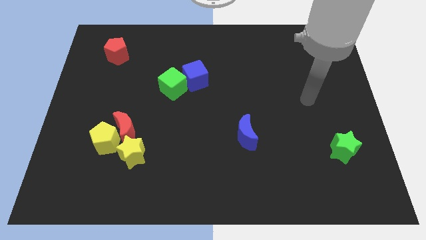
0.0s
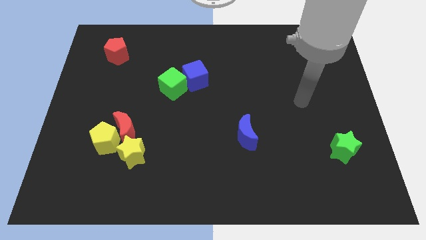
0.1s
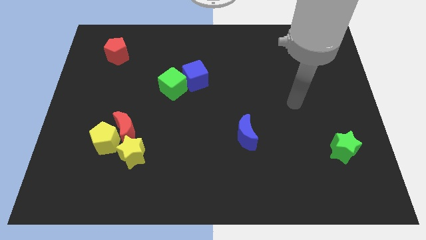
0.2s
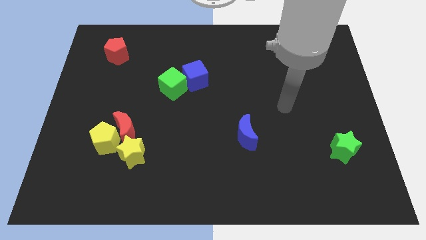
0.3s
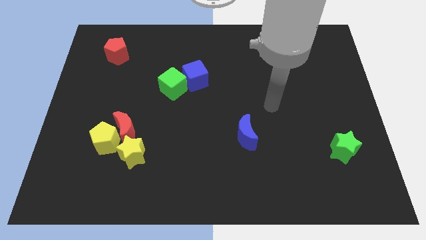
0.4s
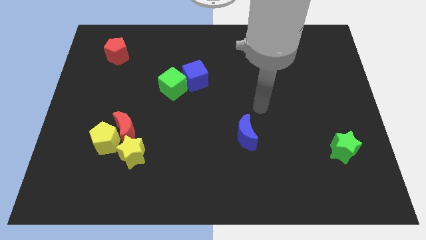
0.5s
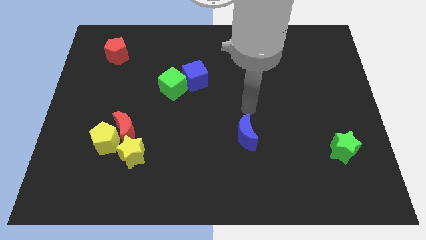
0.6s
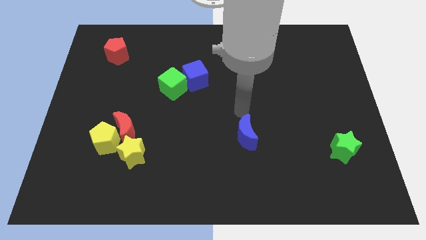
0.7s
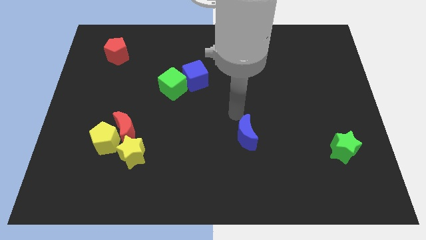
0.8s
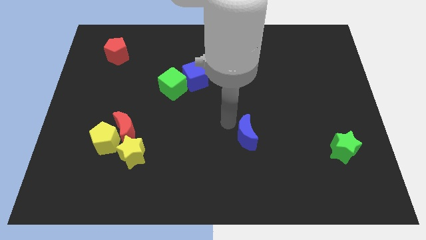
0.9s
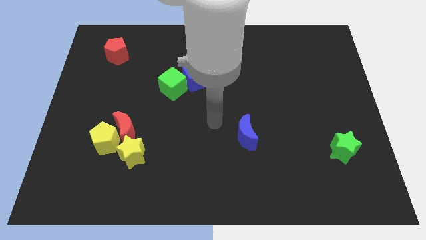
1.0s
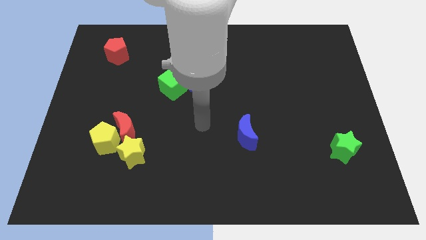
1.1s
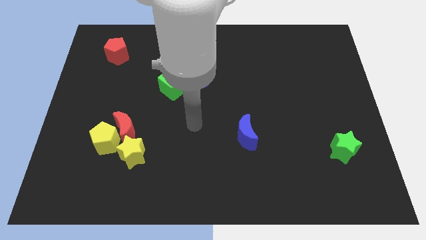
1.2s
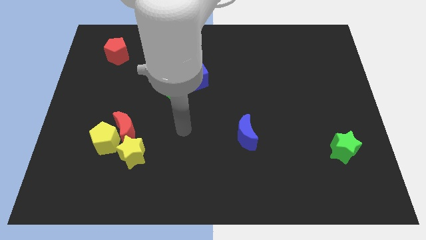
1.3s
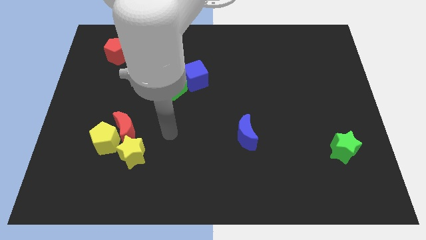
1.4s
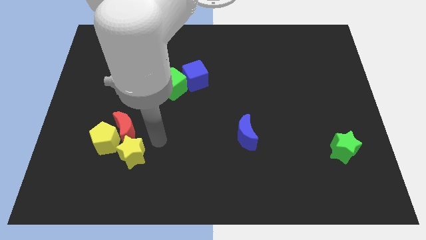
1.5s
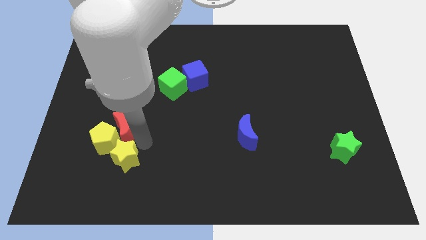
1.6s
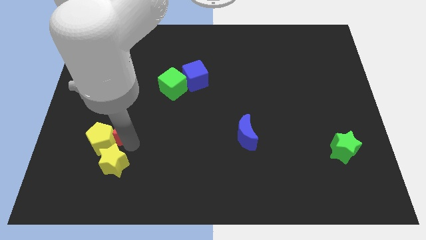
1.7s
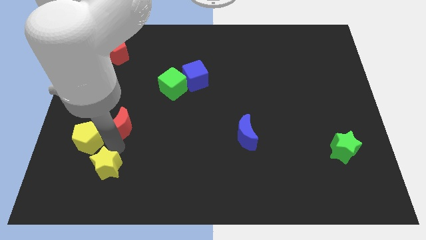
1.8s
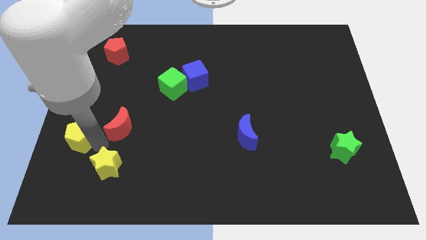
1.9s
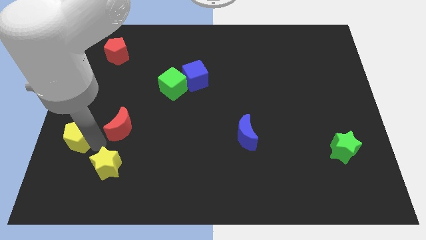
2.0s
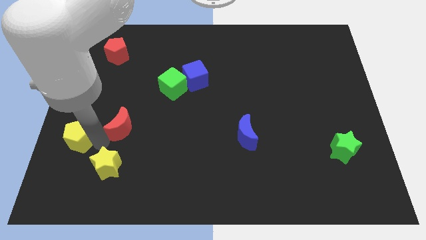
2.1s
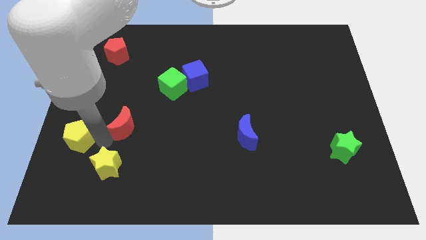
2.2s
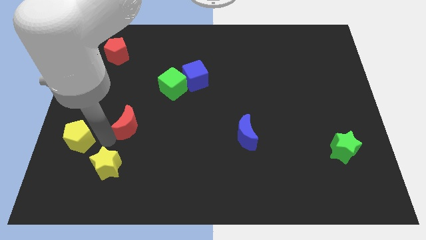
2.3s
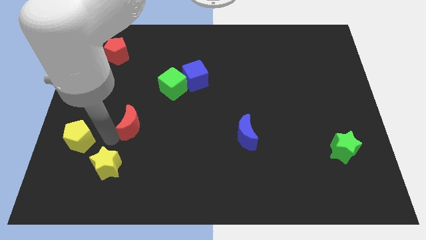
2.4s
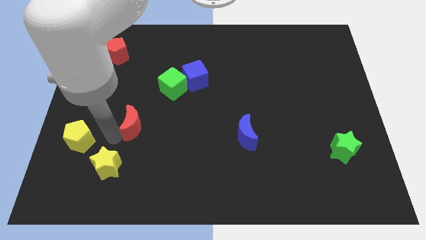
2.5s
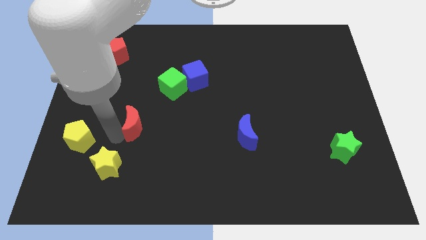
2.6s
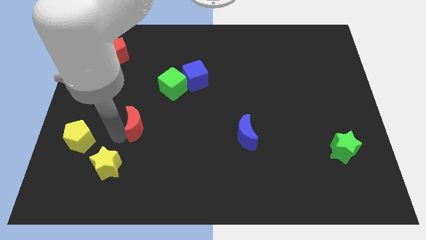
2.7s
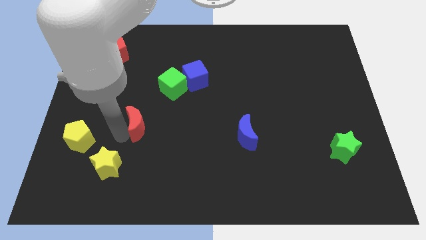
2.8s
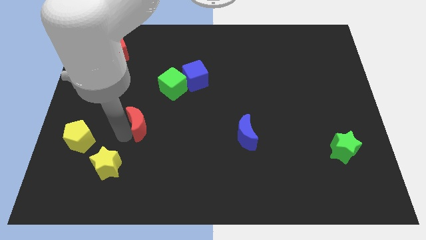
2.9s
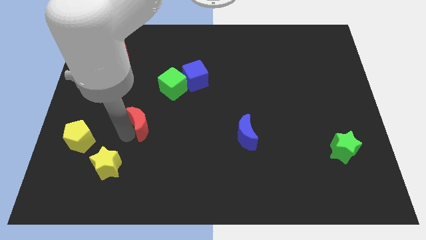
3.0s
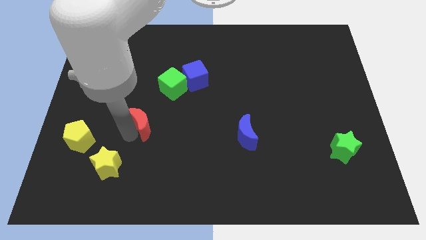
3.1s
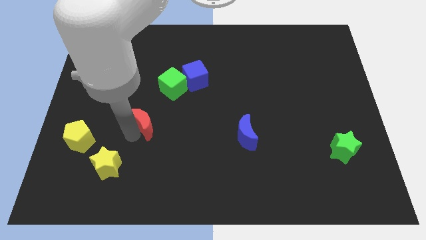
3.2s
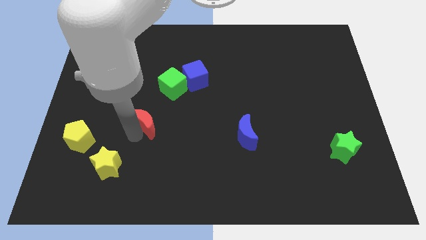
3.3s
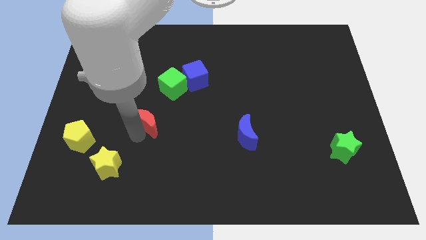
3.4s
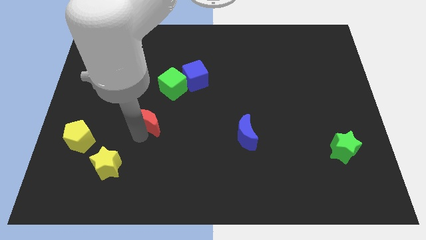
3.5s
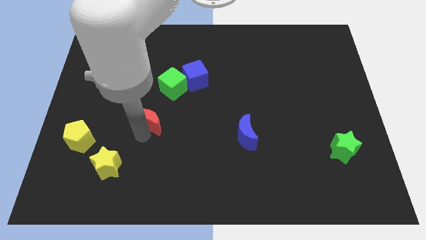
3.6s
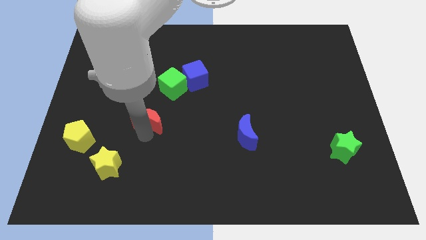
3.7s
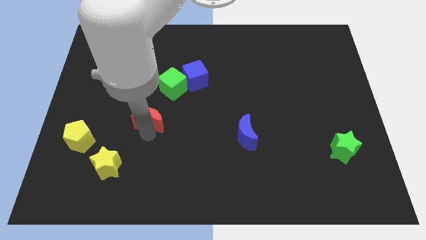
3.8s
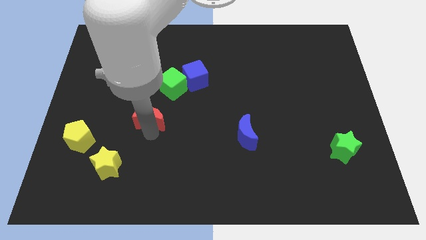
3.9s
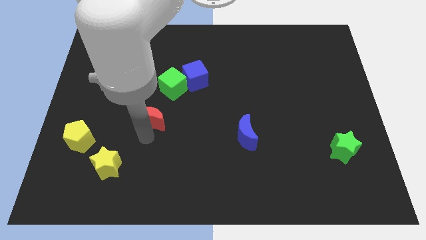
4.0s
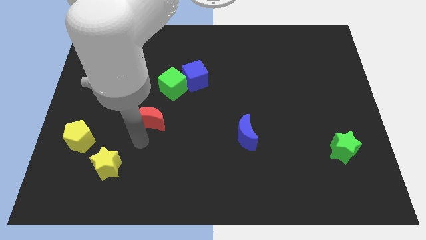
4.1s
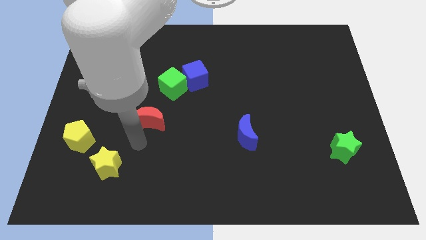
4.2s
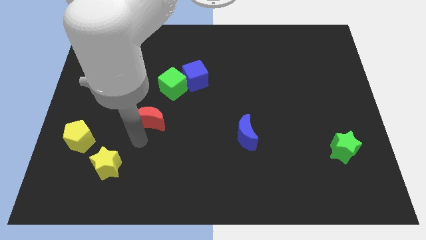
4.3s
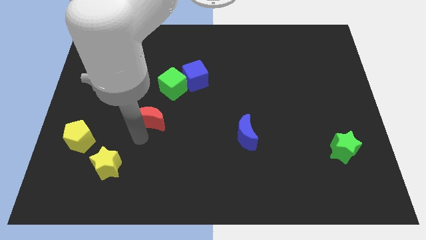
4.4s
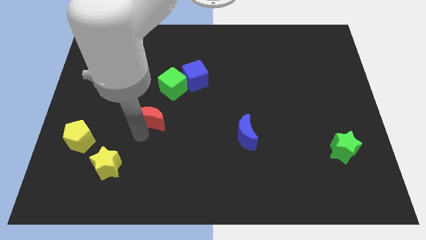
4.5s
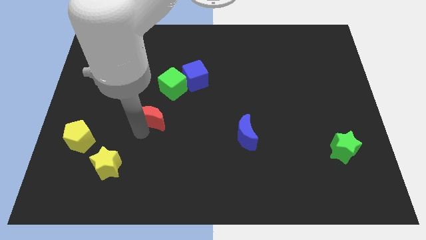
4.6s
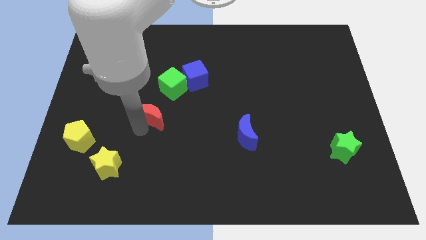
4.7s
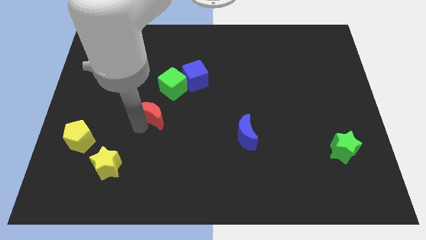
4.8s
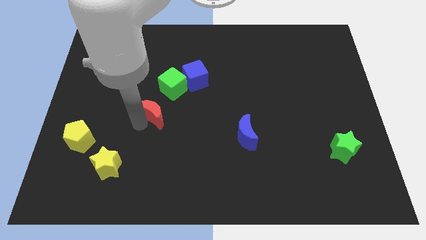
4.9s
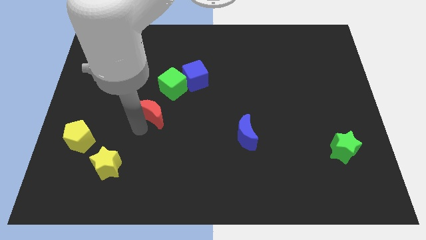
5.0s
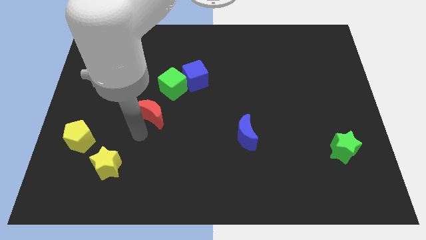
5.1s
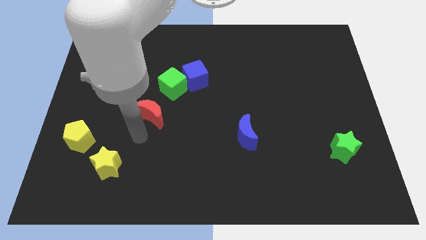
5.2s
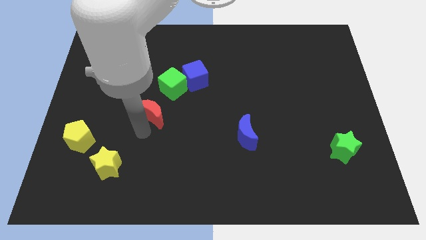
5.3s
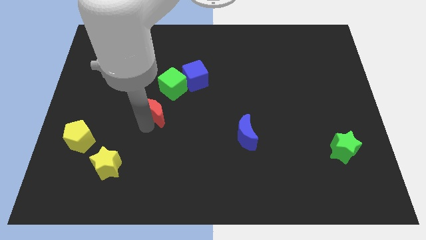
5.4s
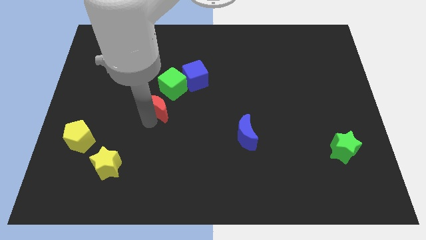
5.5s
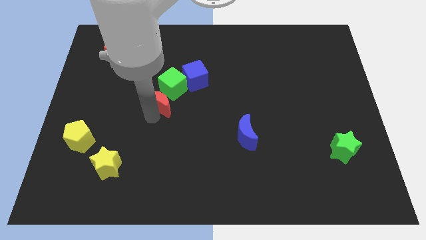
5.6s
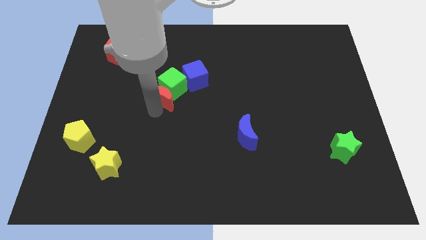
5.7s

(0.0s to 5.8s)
move the red moon next to the green cube

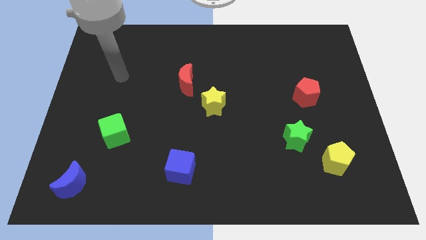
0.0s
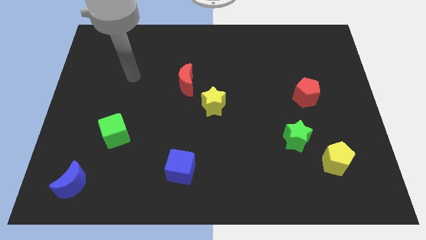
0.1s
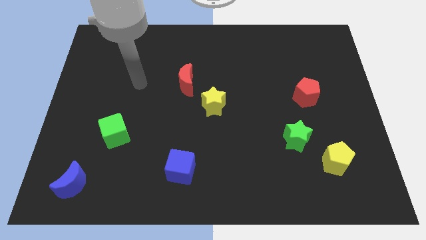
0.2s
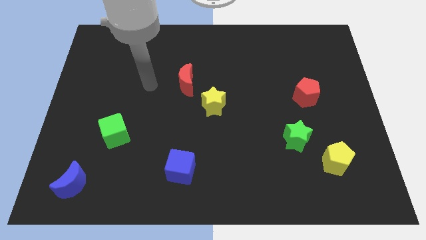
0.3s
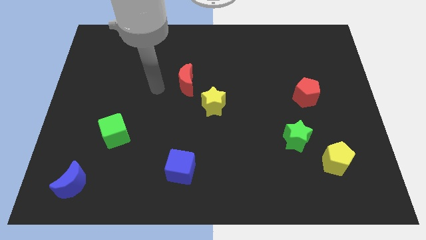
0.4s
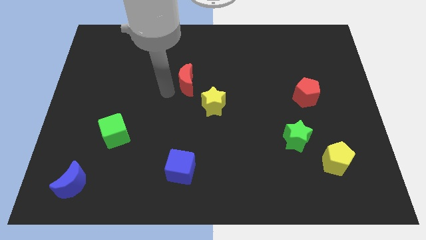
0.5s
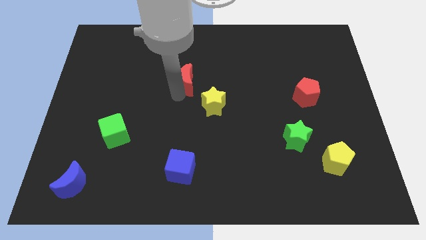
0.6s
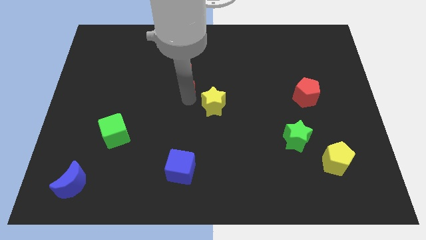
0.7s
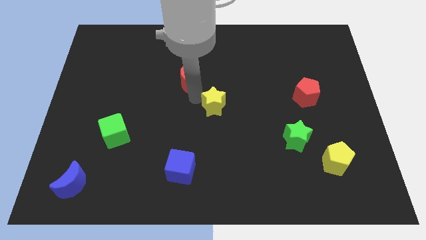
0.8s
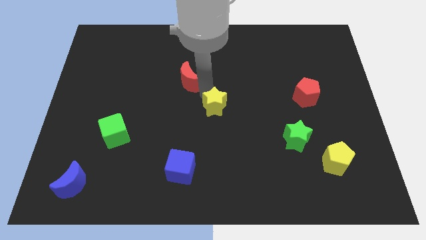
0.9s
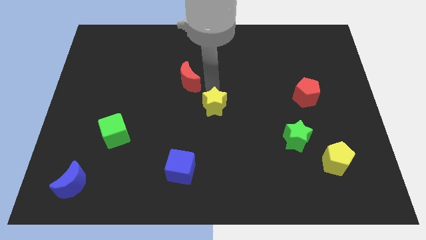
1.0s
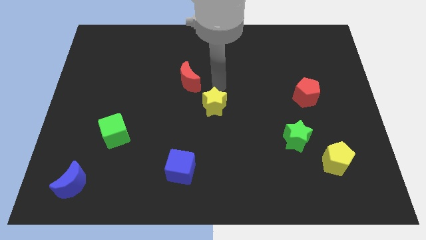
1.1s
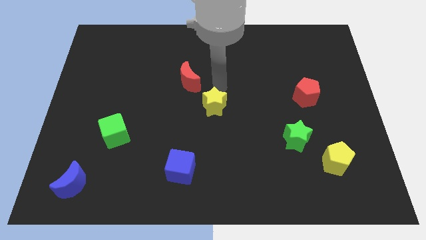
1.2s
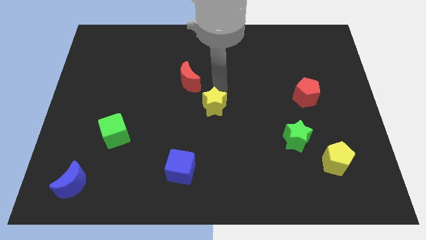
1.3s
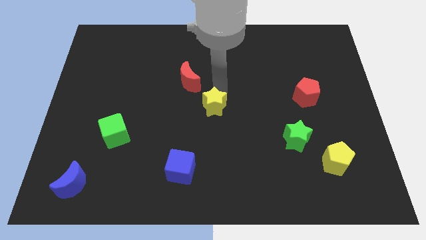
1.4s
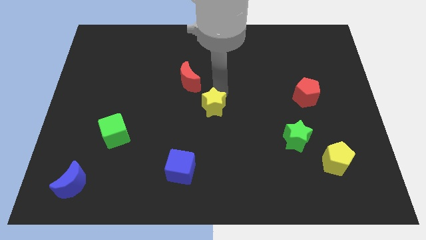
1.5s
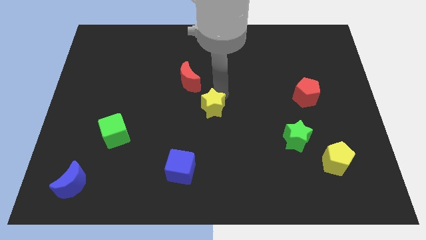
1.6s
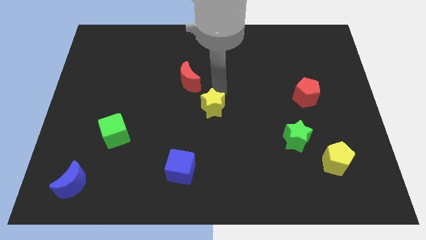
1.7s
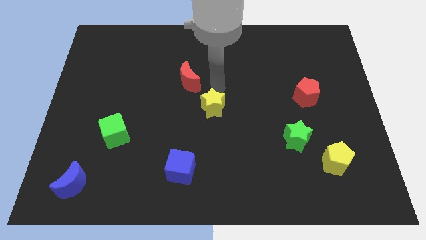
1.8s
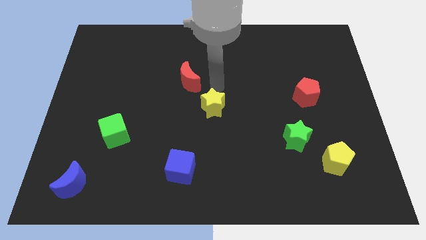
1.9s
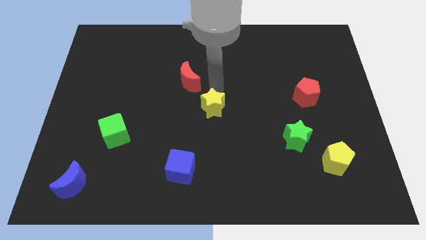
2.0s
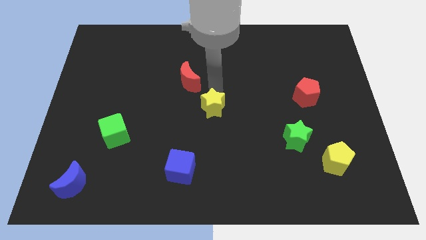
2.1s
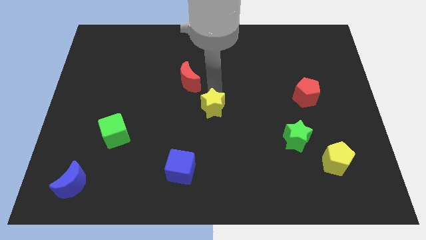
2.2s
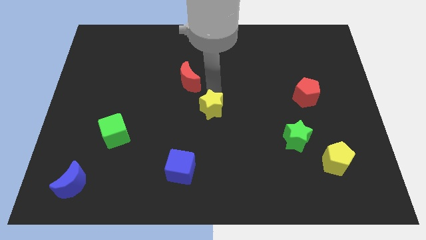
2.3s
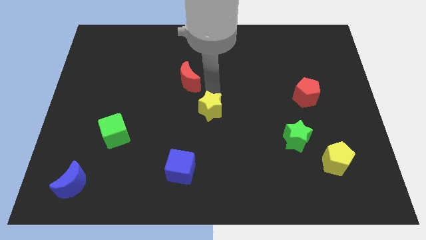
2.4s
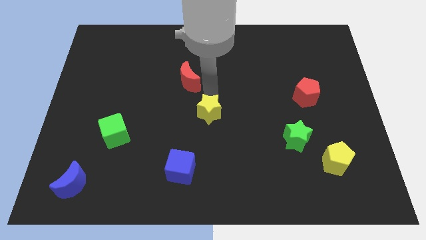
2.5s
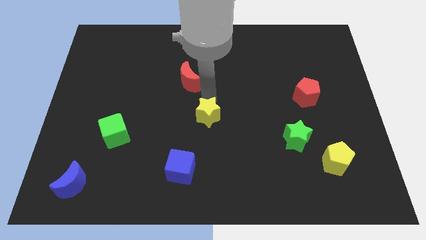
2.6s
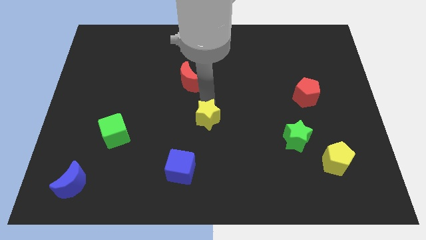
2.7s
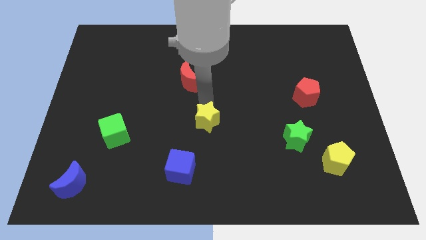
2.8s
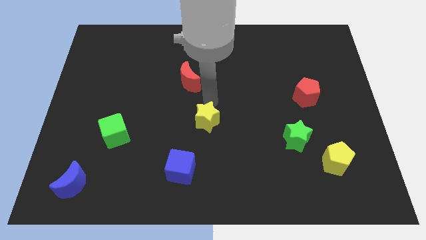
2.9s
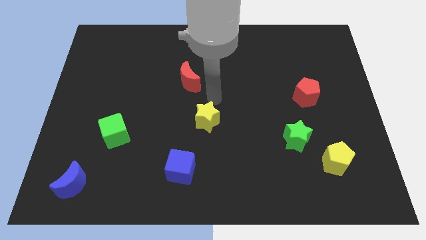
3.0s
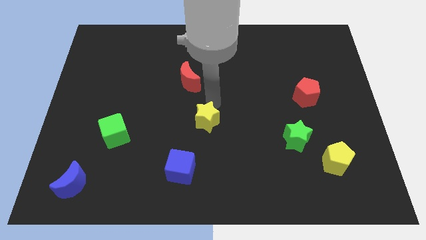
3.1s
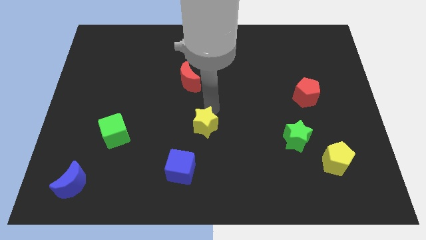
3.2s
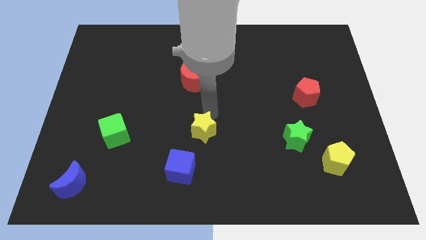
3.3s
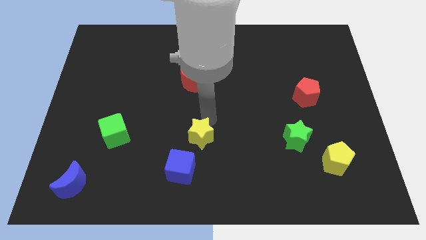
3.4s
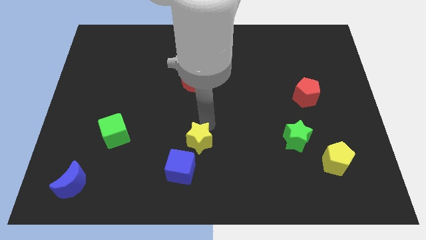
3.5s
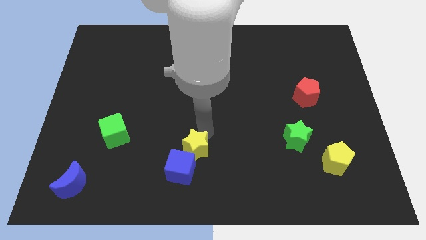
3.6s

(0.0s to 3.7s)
put the yellow star next to the blue cube
